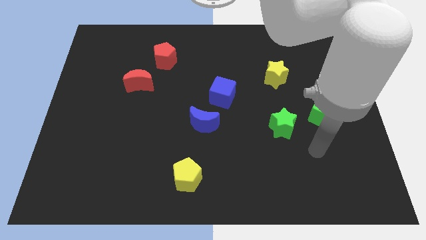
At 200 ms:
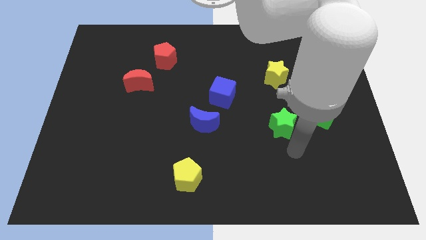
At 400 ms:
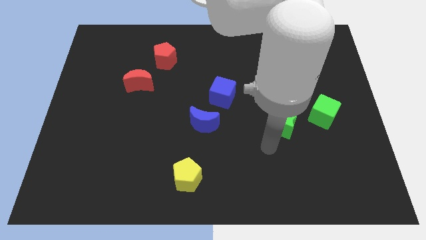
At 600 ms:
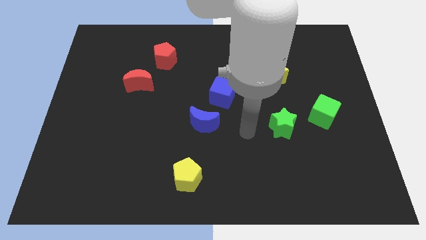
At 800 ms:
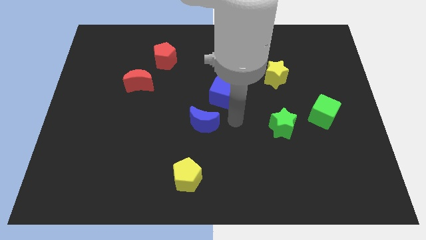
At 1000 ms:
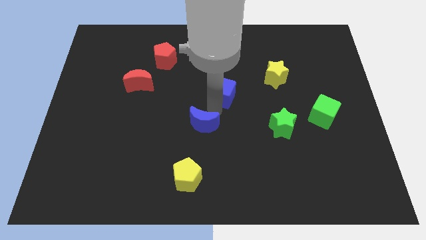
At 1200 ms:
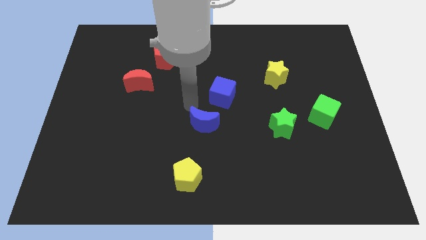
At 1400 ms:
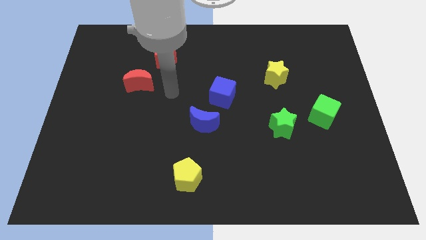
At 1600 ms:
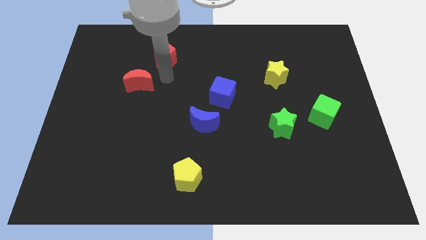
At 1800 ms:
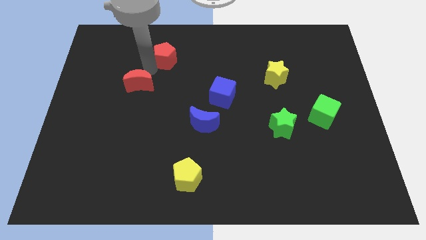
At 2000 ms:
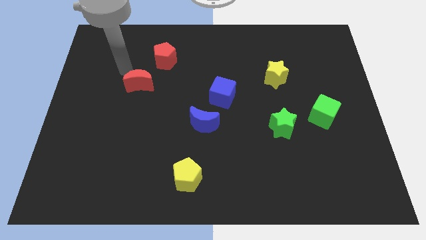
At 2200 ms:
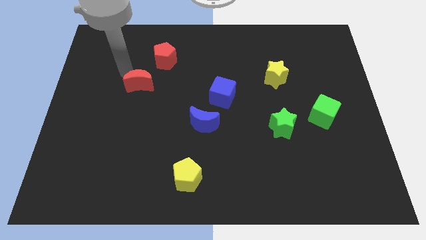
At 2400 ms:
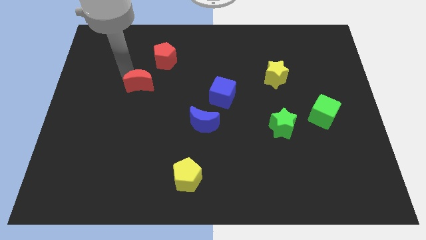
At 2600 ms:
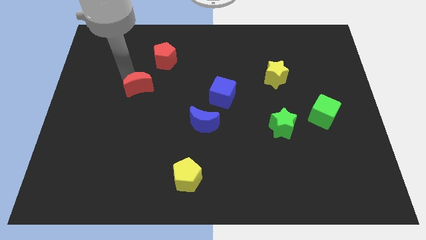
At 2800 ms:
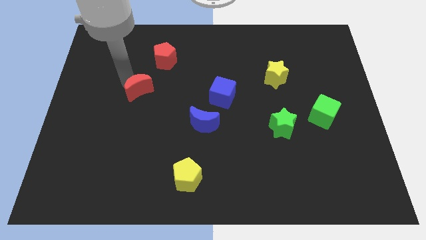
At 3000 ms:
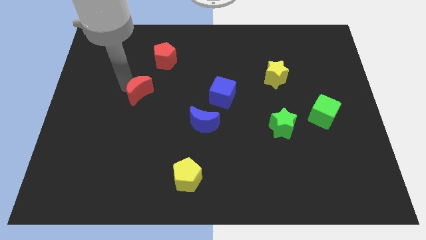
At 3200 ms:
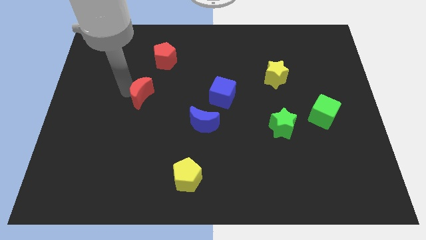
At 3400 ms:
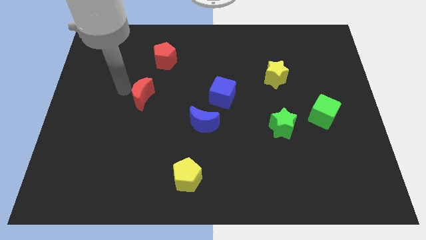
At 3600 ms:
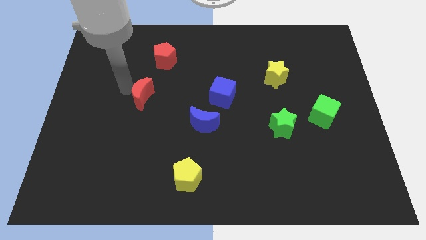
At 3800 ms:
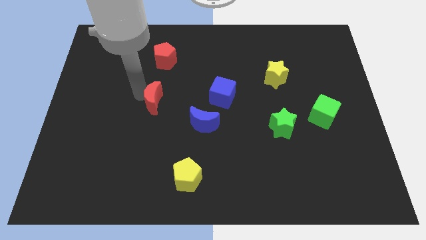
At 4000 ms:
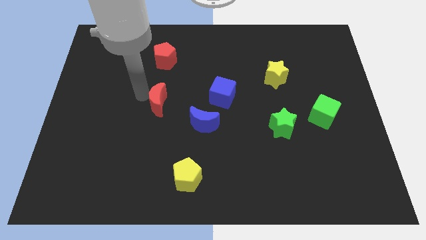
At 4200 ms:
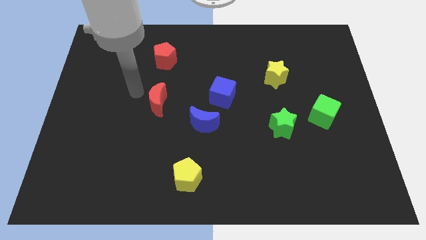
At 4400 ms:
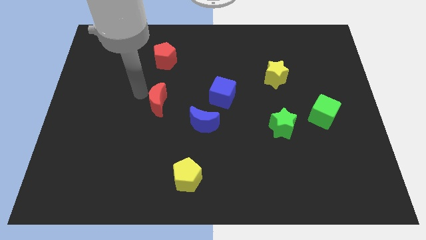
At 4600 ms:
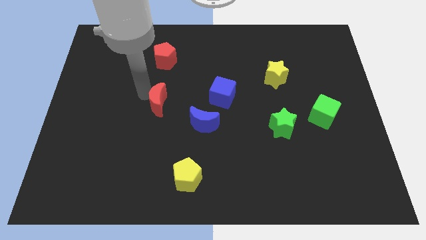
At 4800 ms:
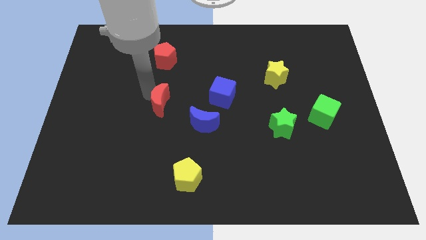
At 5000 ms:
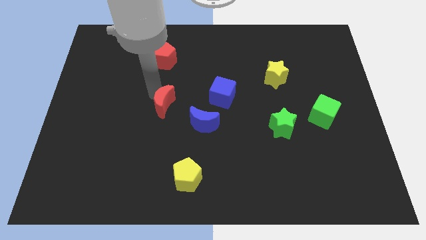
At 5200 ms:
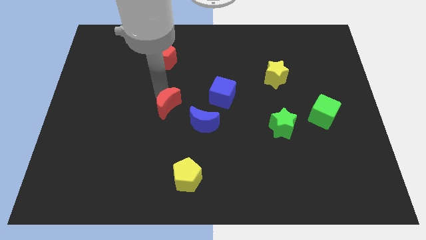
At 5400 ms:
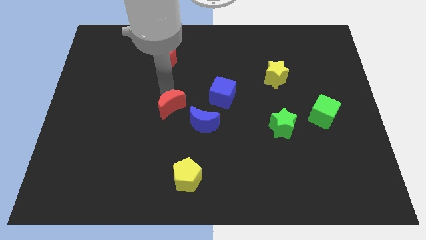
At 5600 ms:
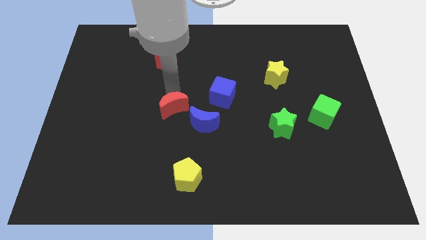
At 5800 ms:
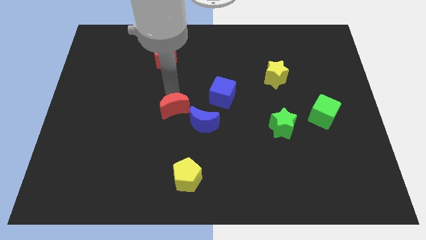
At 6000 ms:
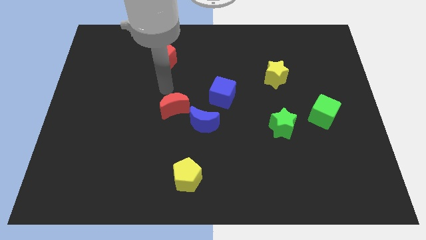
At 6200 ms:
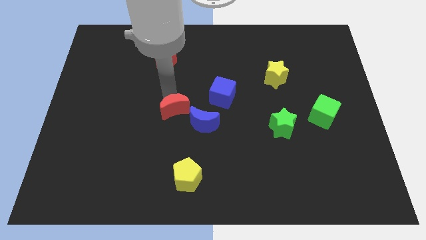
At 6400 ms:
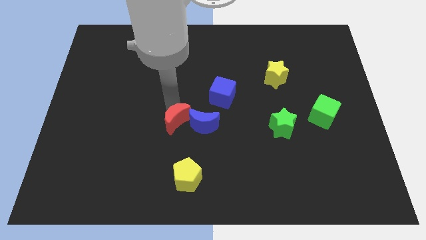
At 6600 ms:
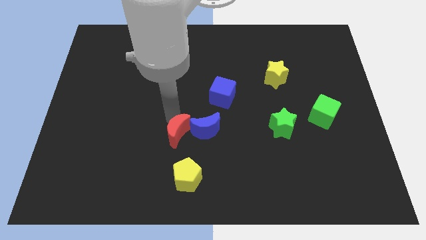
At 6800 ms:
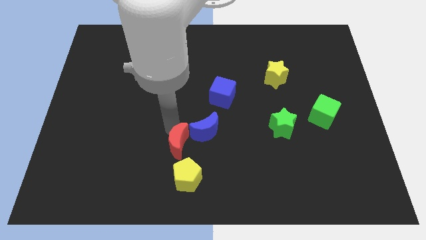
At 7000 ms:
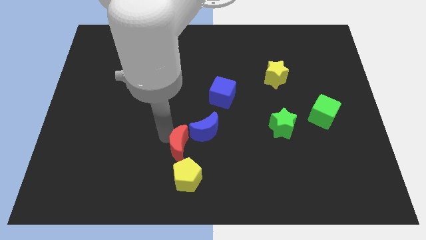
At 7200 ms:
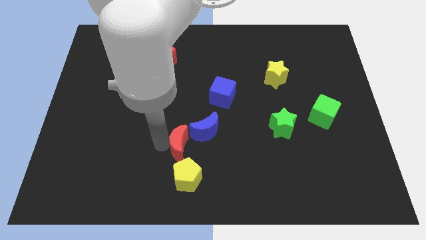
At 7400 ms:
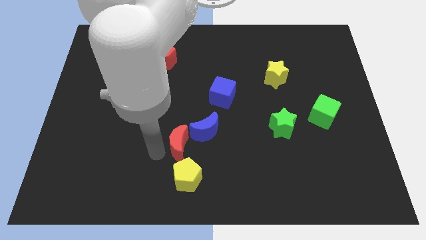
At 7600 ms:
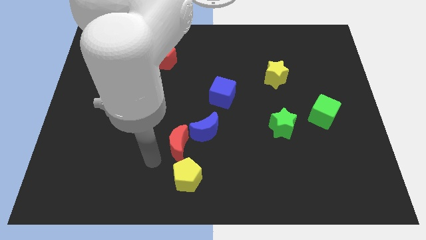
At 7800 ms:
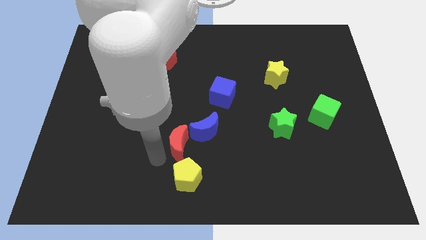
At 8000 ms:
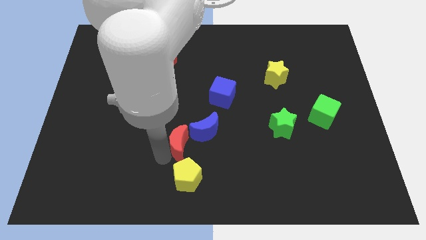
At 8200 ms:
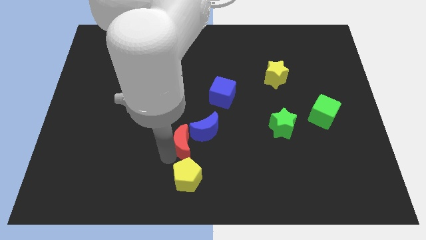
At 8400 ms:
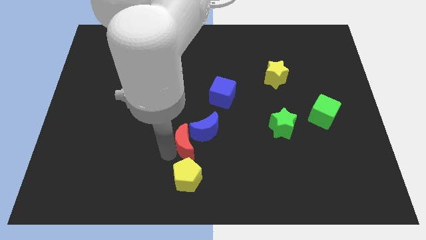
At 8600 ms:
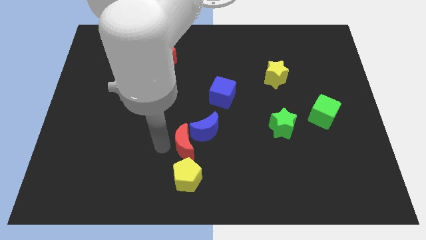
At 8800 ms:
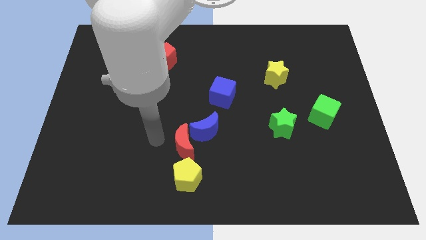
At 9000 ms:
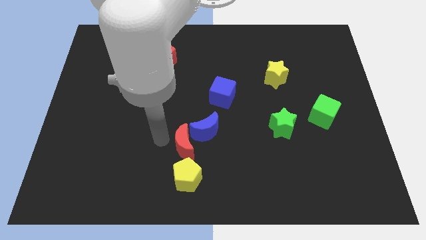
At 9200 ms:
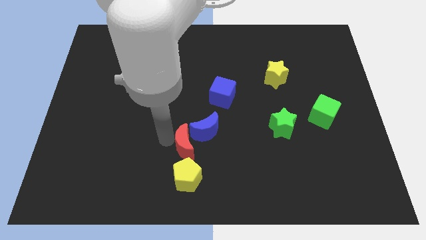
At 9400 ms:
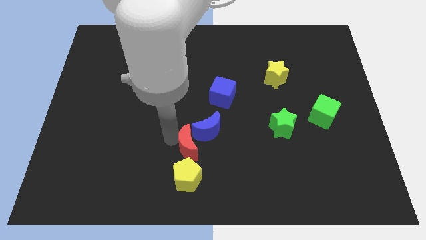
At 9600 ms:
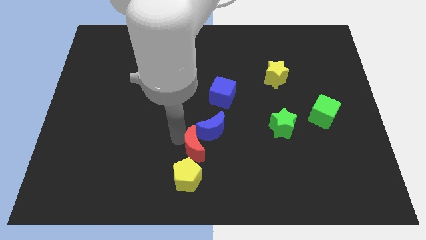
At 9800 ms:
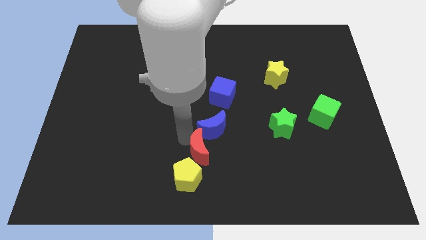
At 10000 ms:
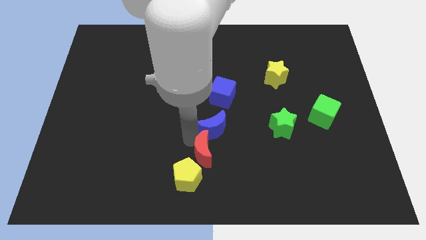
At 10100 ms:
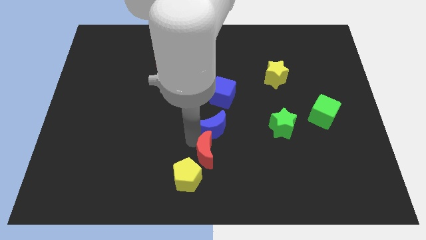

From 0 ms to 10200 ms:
move the red moon to the bottom side
